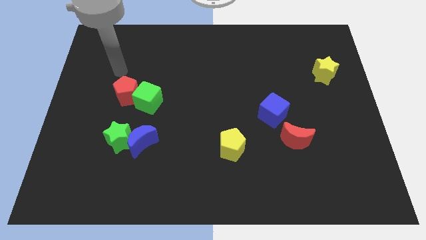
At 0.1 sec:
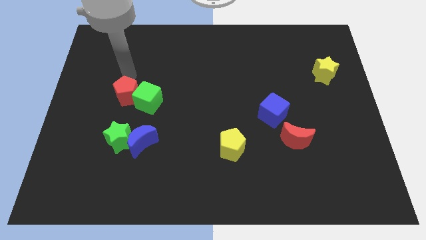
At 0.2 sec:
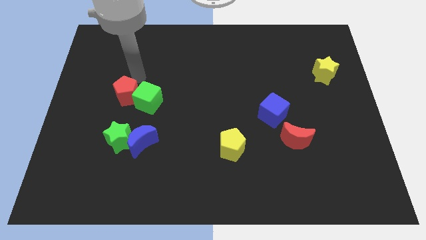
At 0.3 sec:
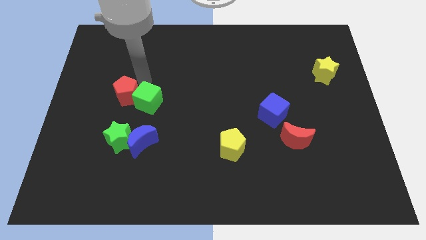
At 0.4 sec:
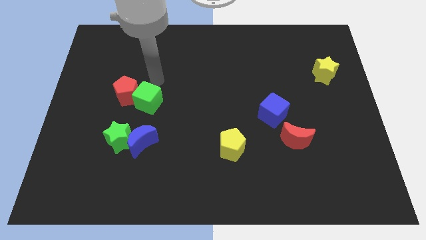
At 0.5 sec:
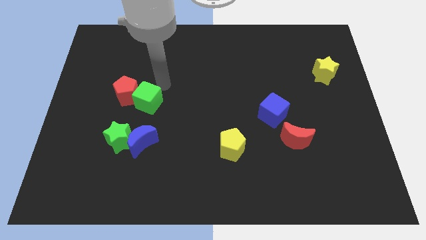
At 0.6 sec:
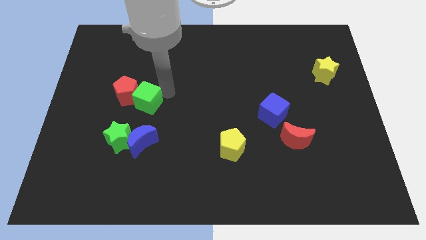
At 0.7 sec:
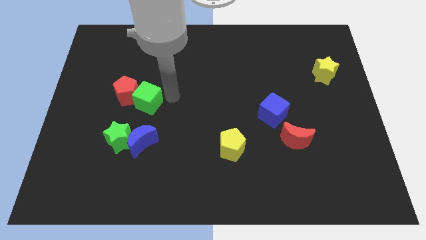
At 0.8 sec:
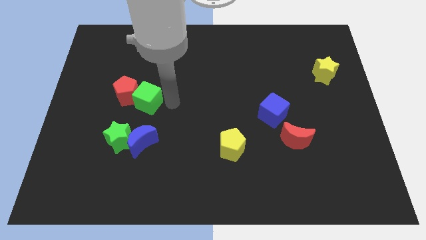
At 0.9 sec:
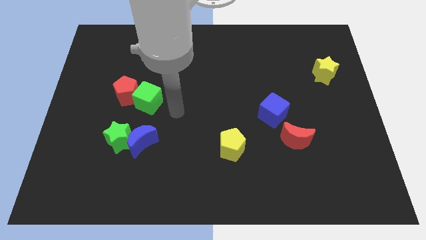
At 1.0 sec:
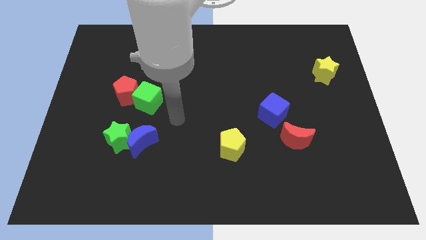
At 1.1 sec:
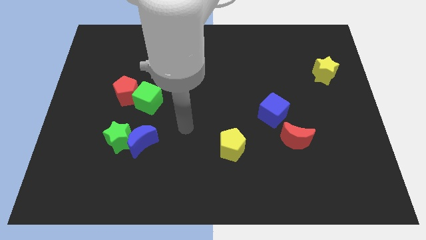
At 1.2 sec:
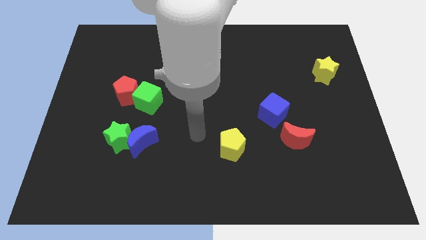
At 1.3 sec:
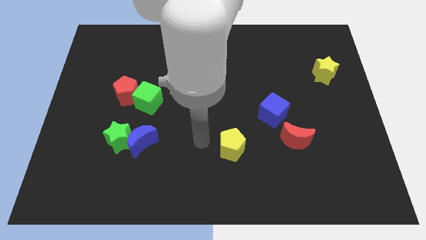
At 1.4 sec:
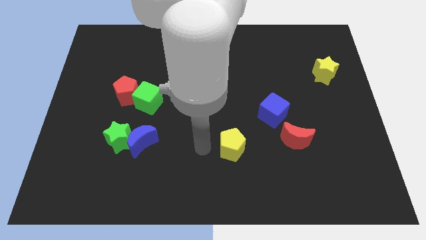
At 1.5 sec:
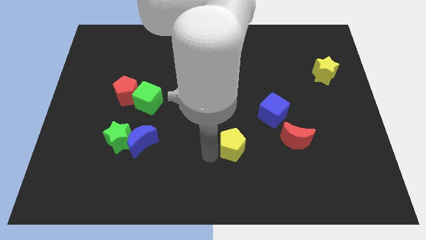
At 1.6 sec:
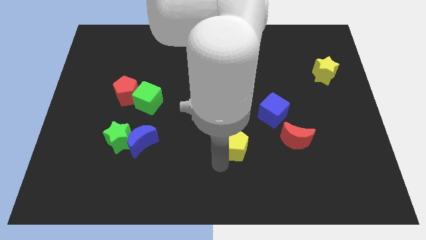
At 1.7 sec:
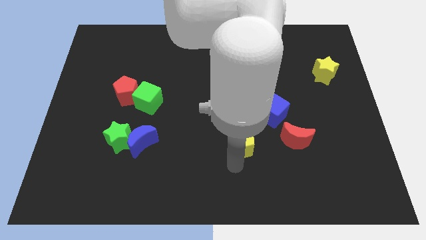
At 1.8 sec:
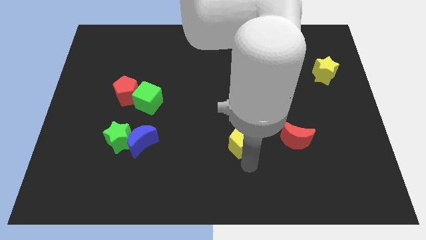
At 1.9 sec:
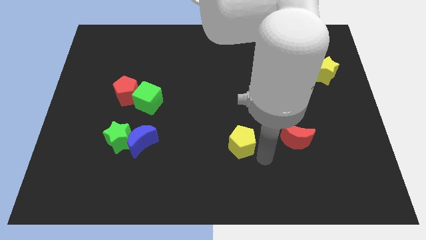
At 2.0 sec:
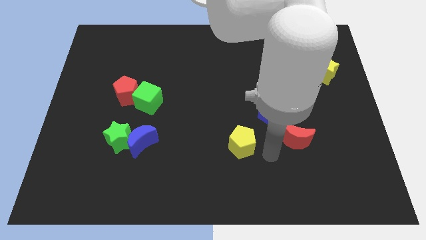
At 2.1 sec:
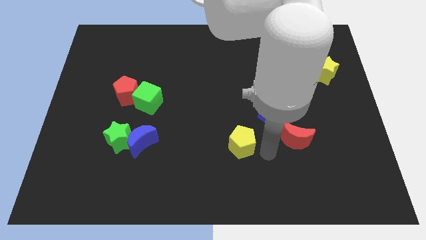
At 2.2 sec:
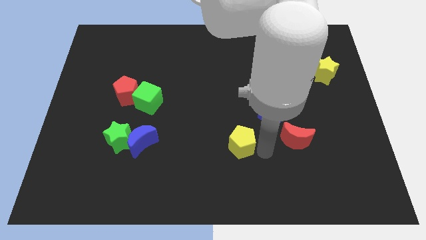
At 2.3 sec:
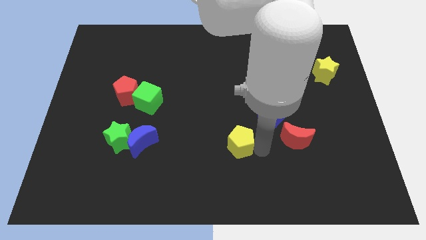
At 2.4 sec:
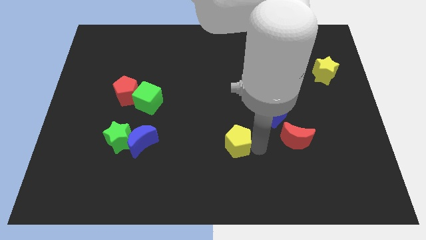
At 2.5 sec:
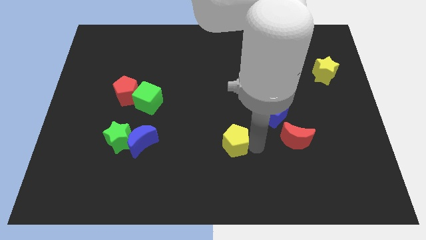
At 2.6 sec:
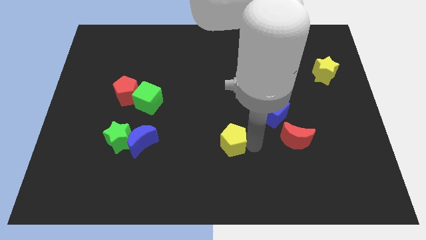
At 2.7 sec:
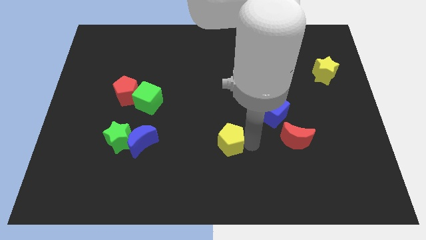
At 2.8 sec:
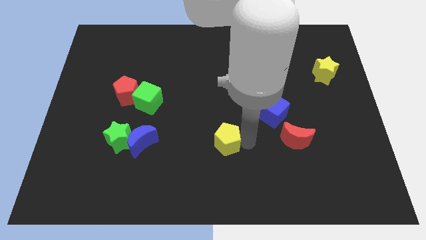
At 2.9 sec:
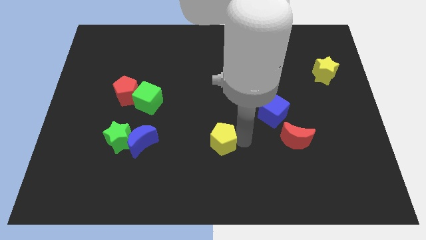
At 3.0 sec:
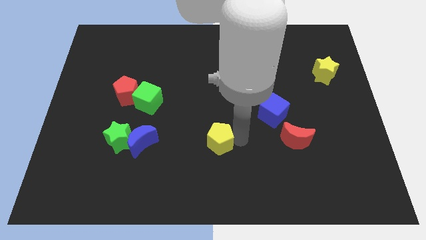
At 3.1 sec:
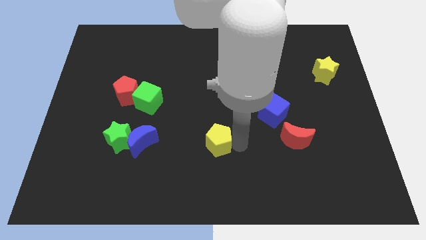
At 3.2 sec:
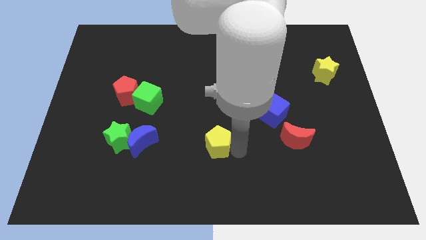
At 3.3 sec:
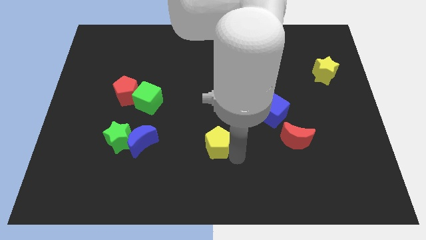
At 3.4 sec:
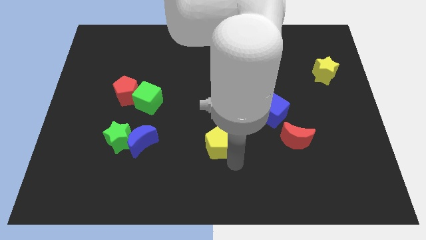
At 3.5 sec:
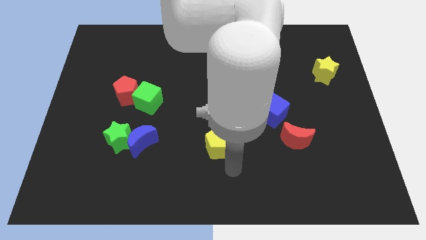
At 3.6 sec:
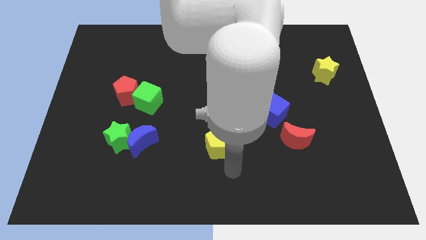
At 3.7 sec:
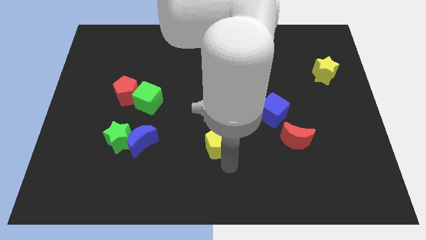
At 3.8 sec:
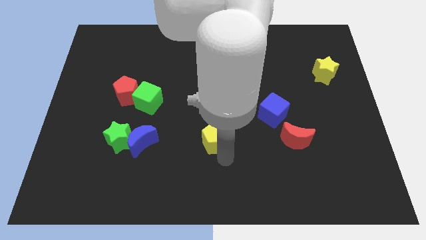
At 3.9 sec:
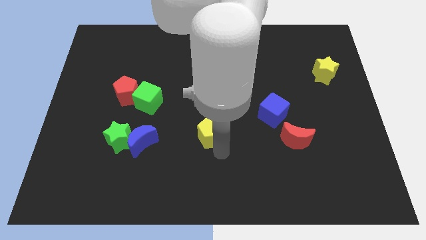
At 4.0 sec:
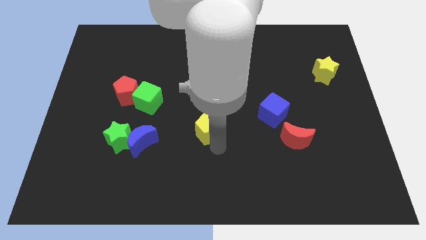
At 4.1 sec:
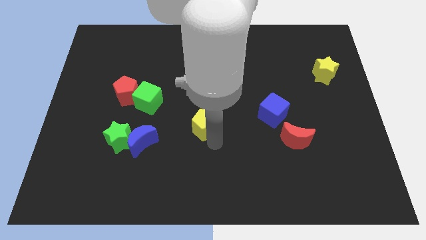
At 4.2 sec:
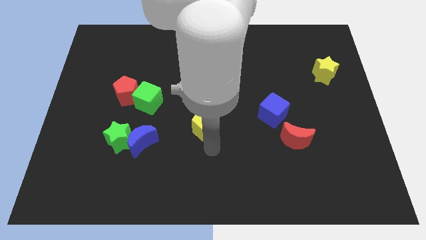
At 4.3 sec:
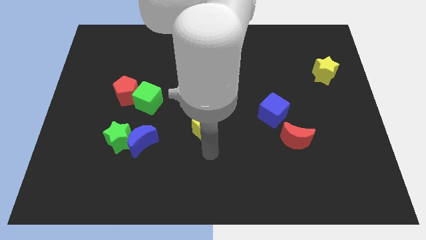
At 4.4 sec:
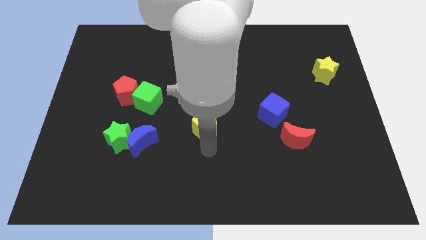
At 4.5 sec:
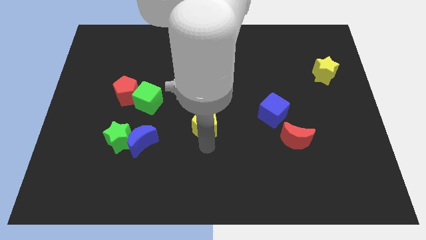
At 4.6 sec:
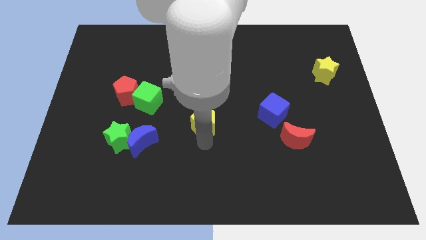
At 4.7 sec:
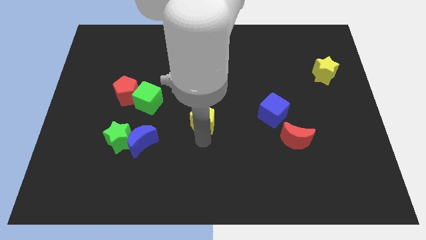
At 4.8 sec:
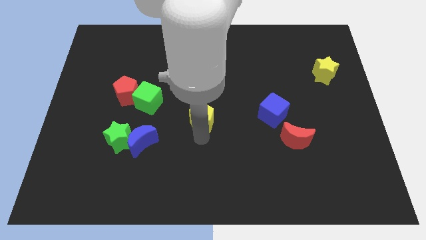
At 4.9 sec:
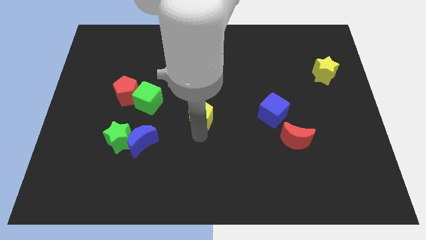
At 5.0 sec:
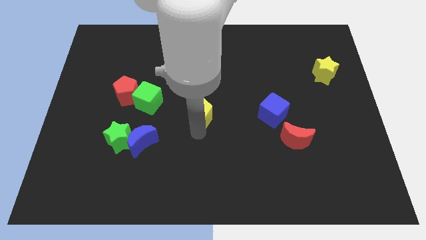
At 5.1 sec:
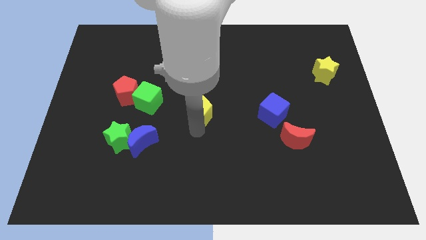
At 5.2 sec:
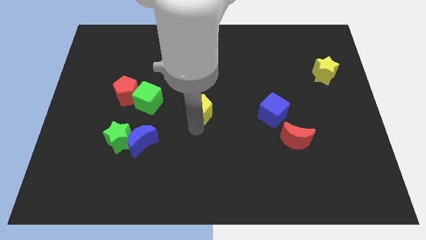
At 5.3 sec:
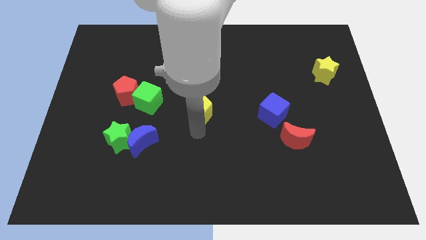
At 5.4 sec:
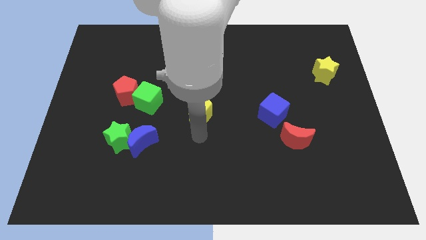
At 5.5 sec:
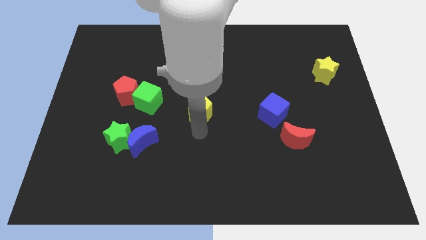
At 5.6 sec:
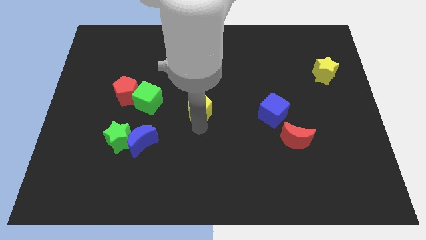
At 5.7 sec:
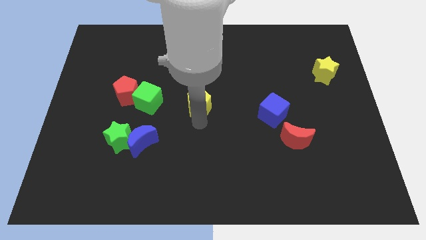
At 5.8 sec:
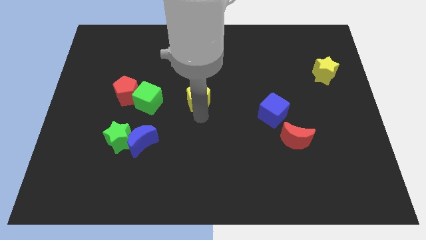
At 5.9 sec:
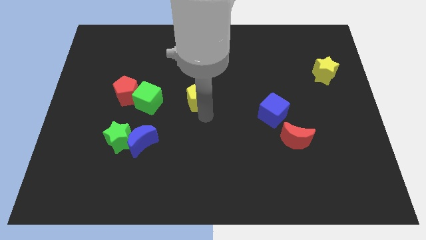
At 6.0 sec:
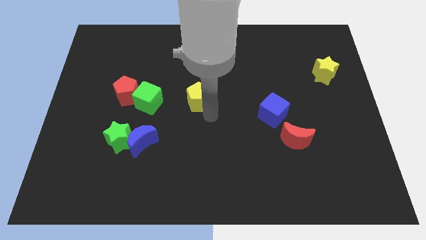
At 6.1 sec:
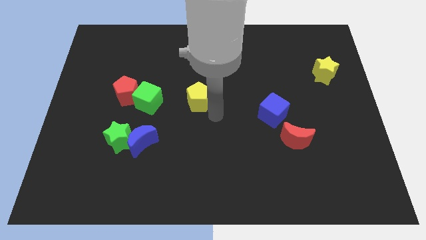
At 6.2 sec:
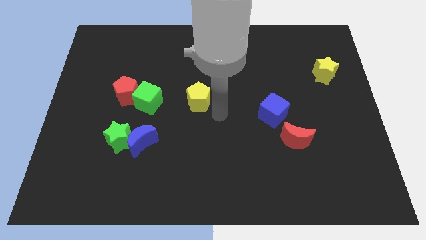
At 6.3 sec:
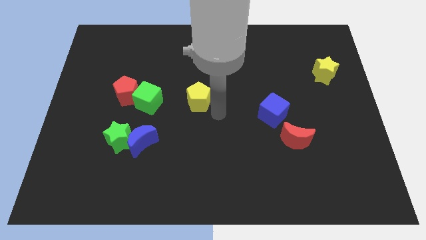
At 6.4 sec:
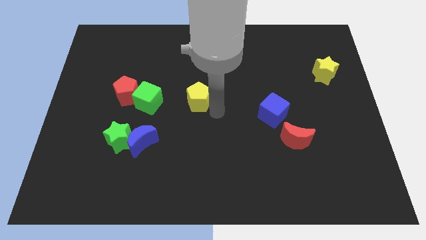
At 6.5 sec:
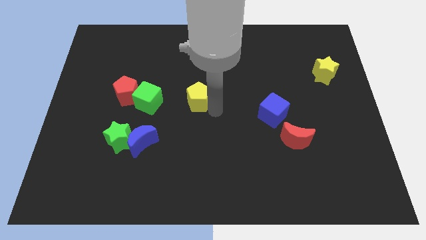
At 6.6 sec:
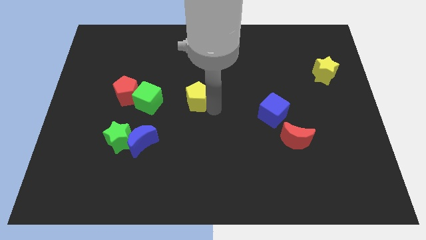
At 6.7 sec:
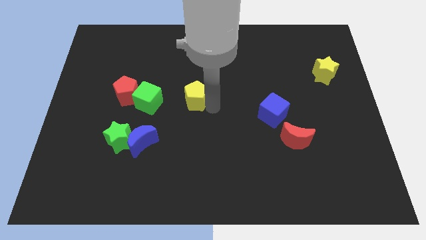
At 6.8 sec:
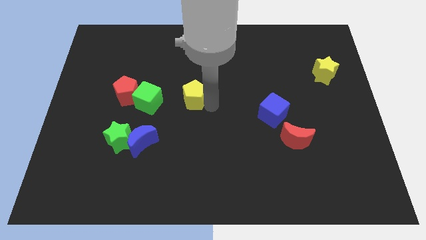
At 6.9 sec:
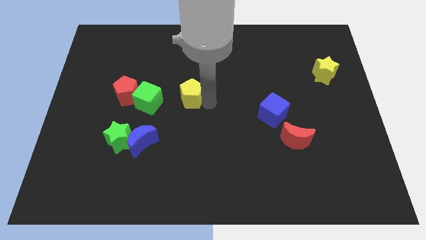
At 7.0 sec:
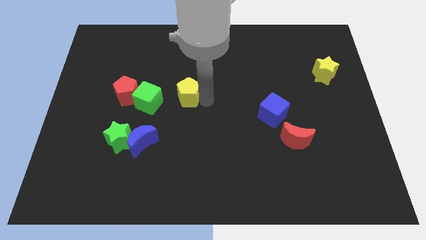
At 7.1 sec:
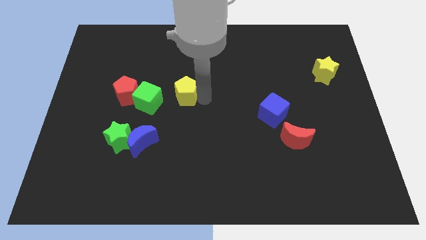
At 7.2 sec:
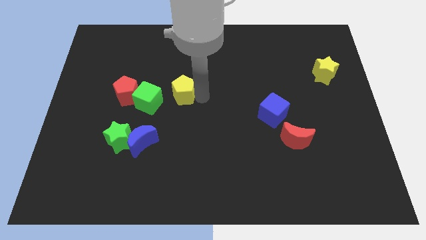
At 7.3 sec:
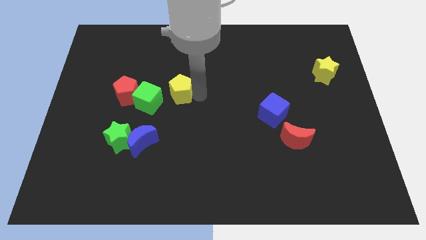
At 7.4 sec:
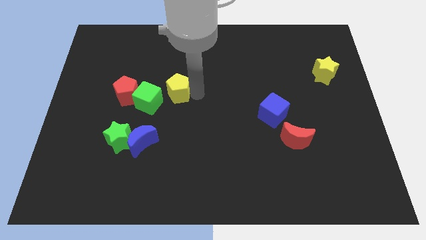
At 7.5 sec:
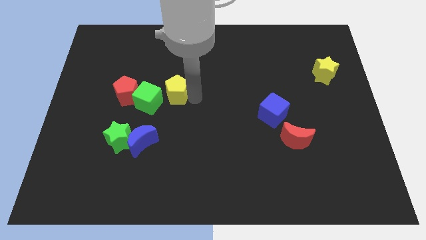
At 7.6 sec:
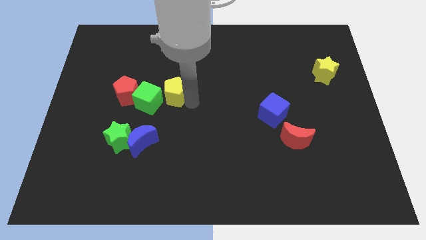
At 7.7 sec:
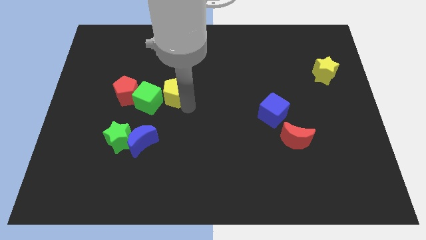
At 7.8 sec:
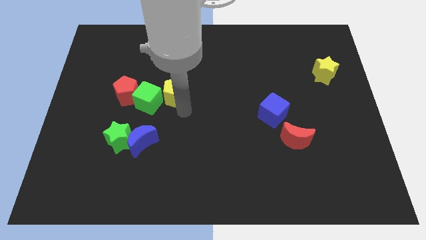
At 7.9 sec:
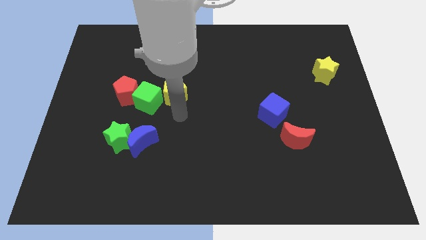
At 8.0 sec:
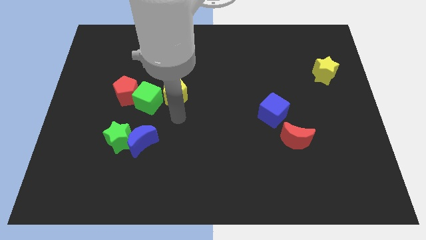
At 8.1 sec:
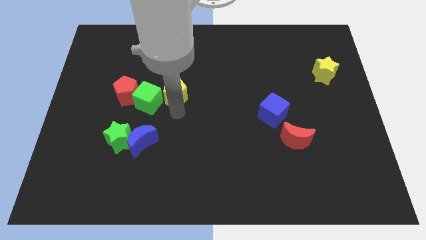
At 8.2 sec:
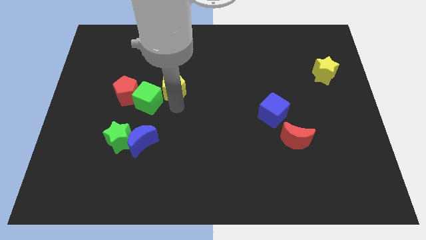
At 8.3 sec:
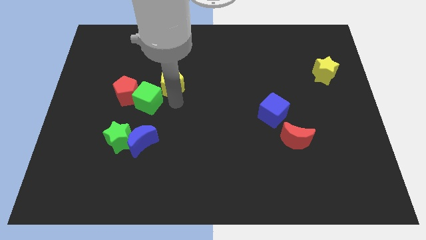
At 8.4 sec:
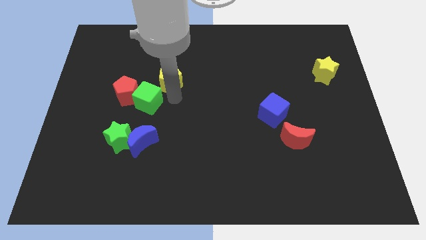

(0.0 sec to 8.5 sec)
push the yellow pentagon to the top of the green cube
